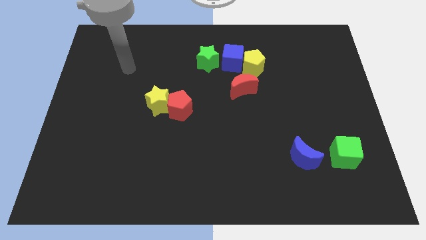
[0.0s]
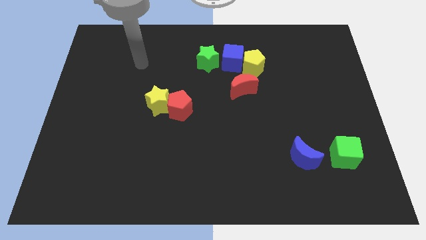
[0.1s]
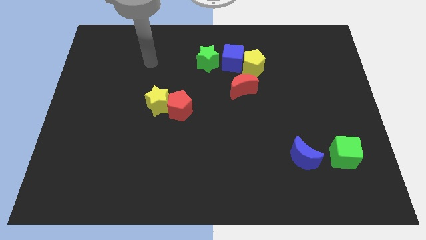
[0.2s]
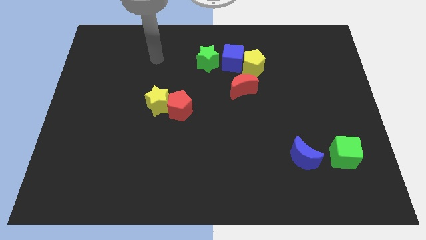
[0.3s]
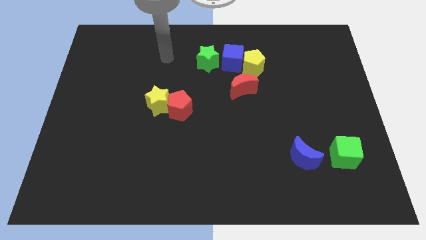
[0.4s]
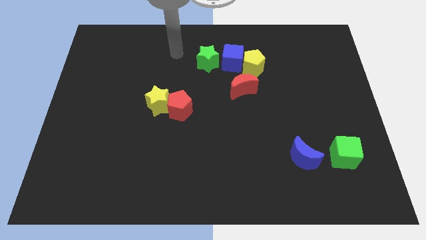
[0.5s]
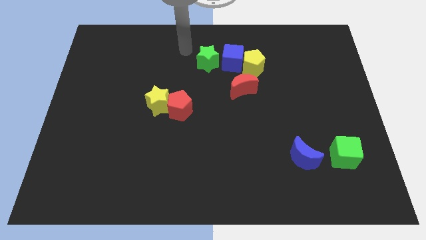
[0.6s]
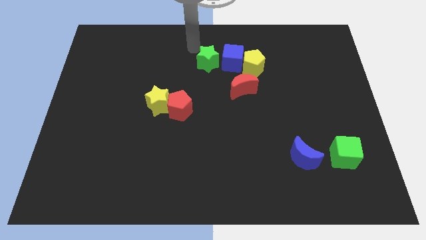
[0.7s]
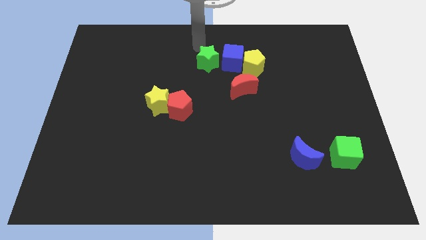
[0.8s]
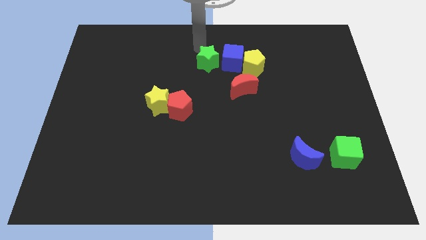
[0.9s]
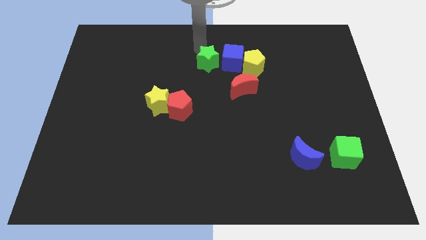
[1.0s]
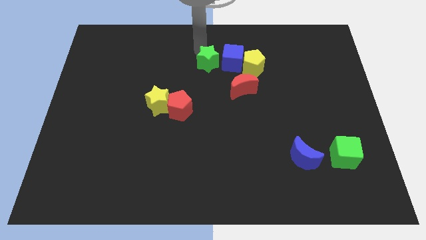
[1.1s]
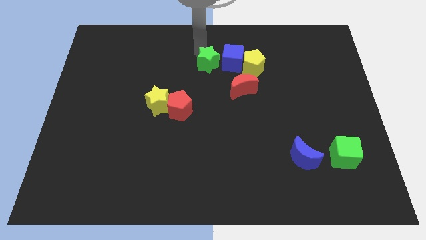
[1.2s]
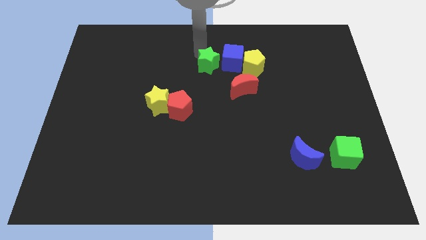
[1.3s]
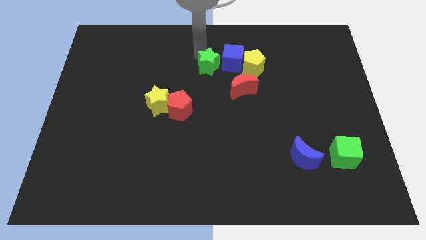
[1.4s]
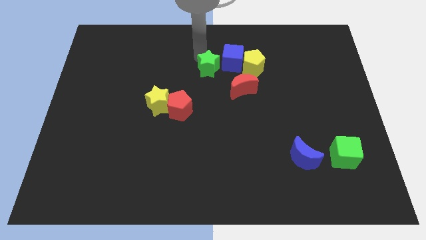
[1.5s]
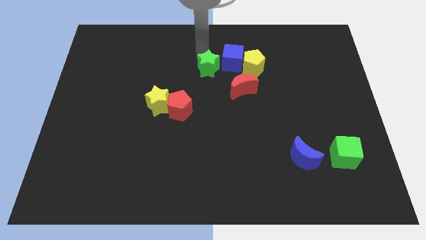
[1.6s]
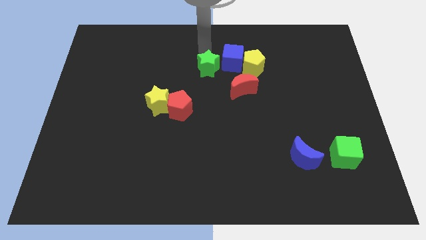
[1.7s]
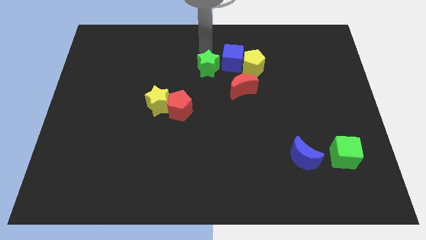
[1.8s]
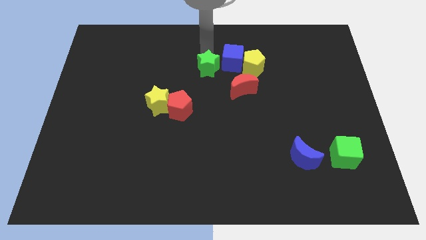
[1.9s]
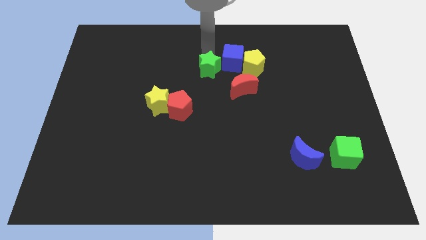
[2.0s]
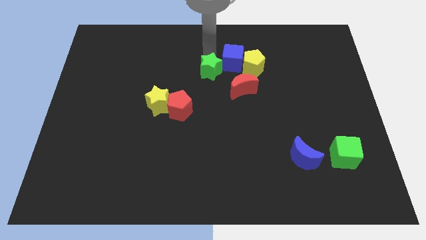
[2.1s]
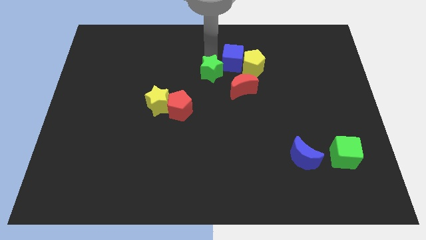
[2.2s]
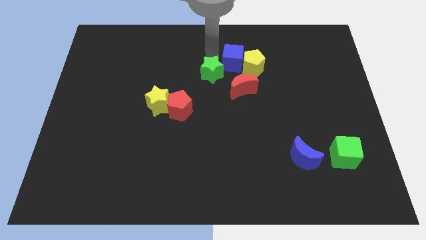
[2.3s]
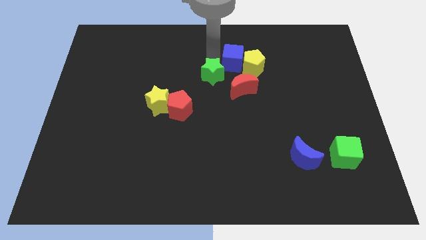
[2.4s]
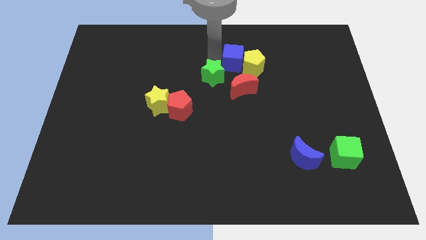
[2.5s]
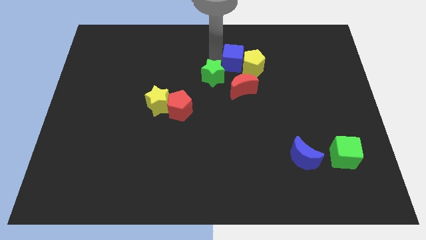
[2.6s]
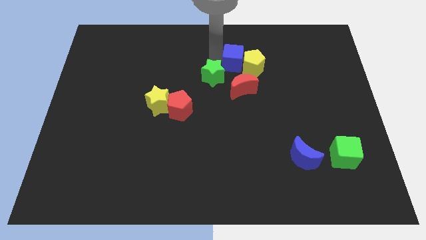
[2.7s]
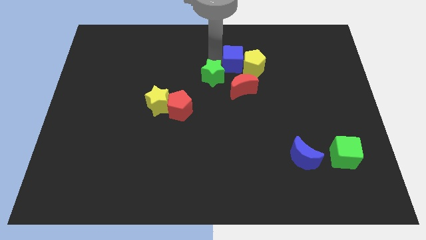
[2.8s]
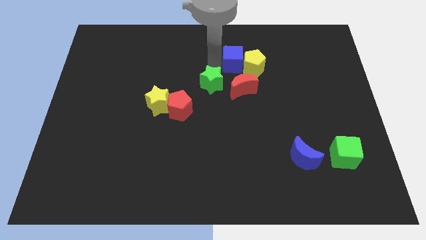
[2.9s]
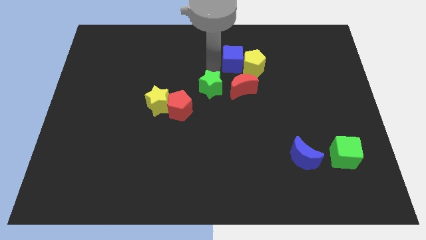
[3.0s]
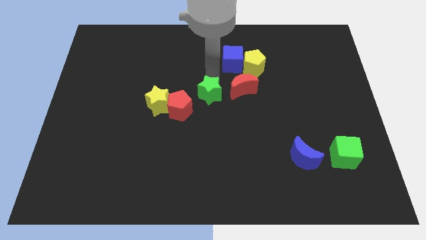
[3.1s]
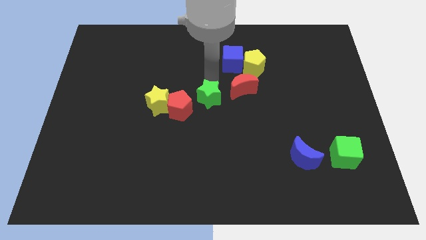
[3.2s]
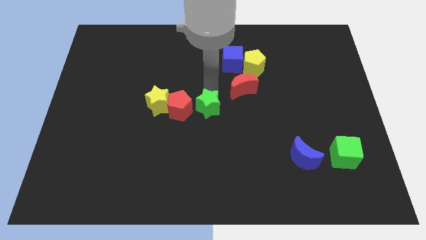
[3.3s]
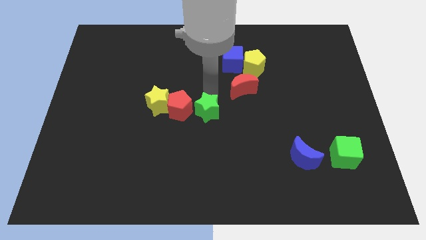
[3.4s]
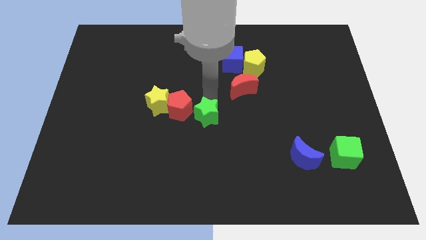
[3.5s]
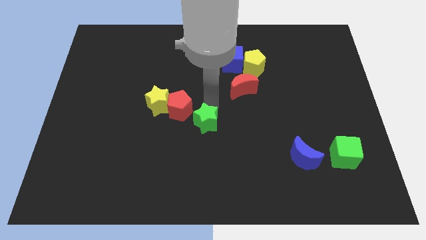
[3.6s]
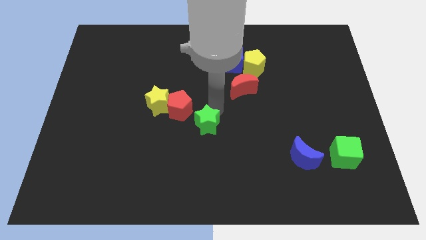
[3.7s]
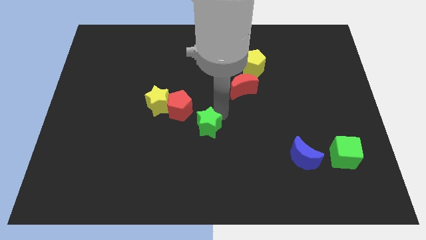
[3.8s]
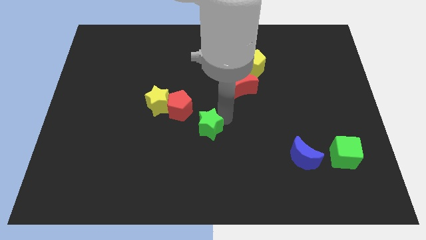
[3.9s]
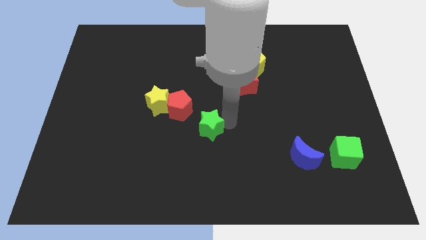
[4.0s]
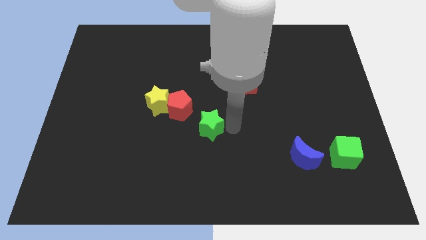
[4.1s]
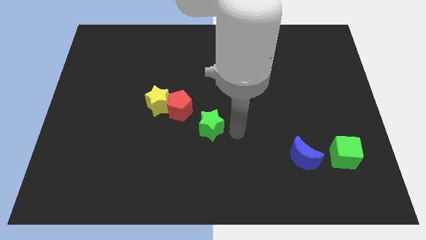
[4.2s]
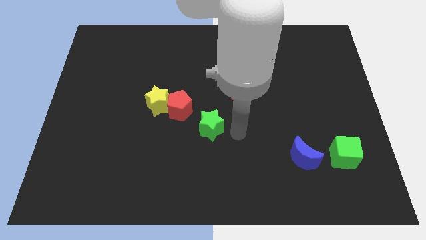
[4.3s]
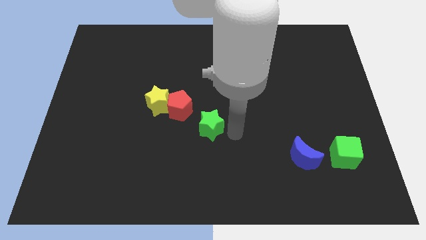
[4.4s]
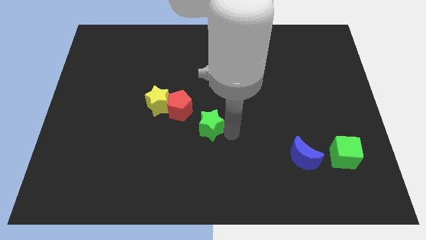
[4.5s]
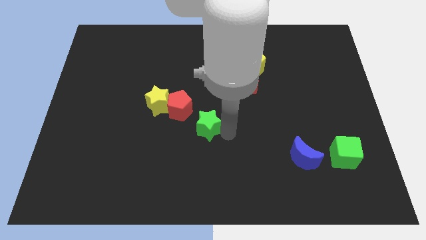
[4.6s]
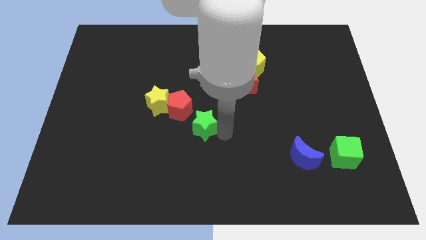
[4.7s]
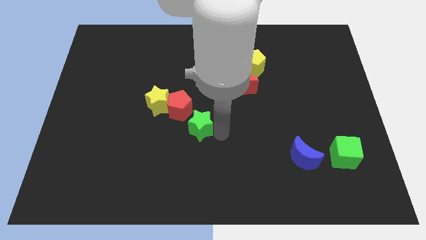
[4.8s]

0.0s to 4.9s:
move the green star to the bottom right of the yellow star

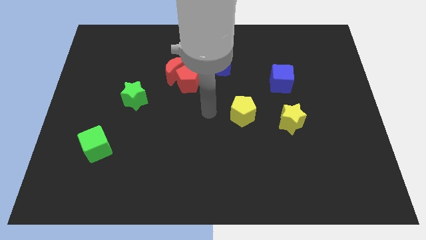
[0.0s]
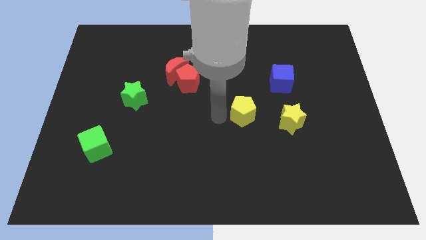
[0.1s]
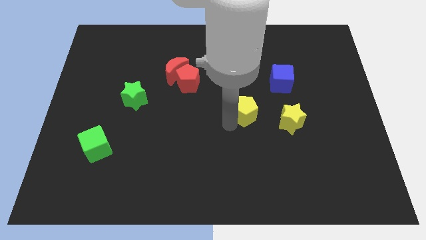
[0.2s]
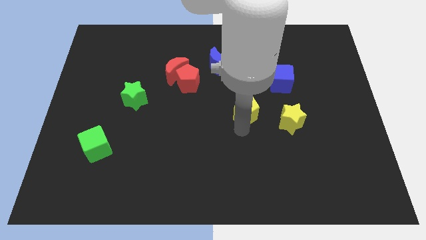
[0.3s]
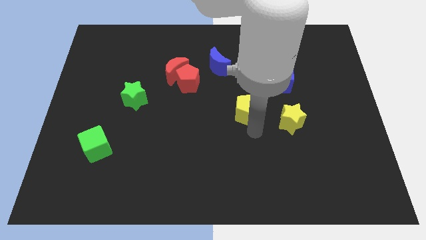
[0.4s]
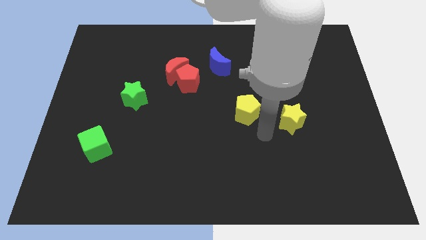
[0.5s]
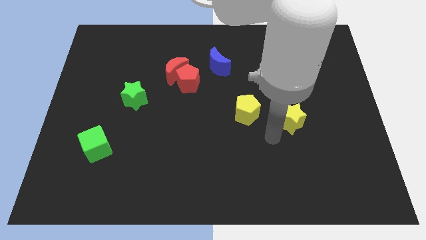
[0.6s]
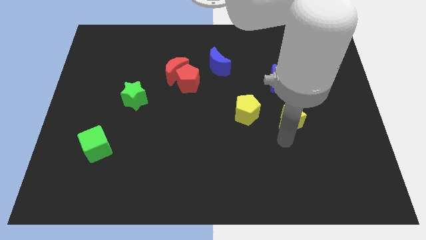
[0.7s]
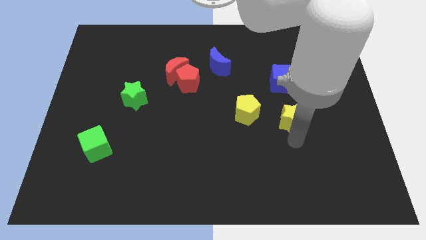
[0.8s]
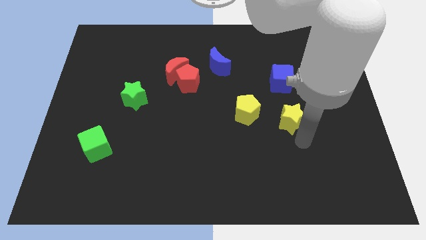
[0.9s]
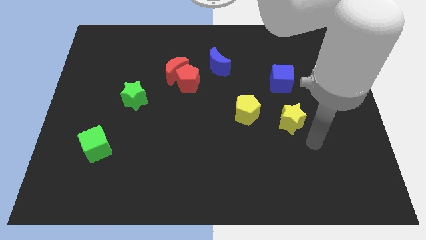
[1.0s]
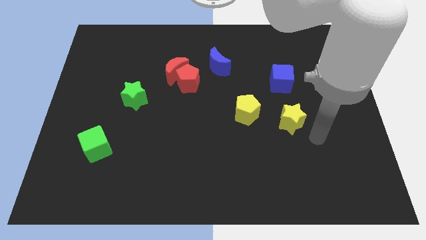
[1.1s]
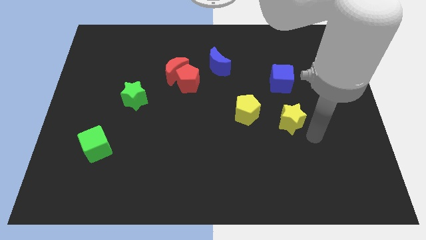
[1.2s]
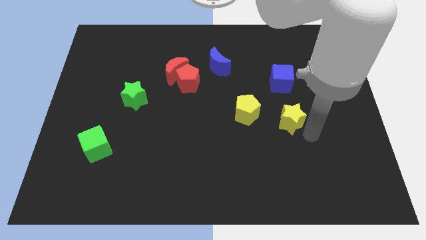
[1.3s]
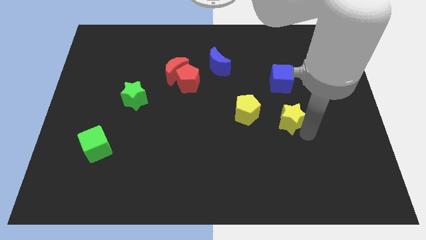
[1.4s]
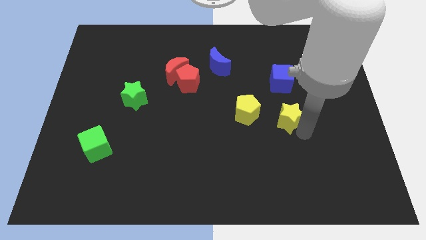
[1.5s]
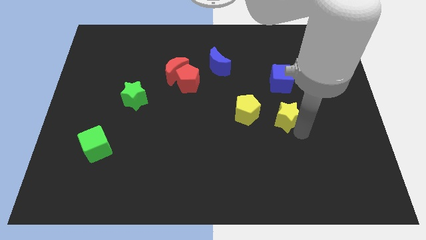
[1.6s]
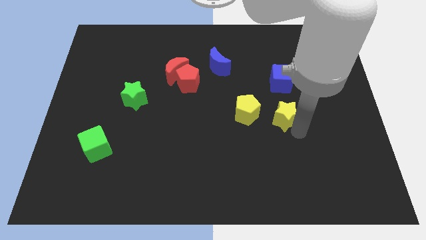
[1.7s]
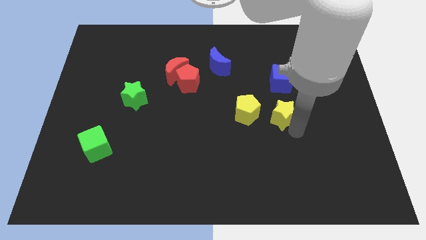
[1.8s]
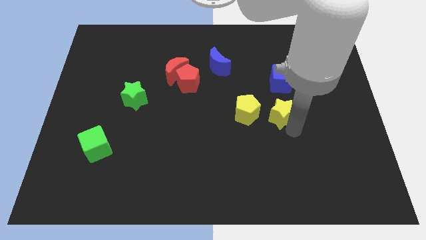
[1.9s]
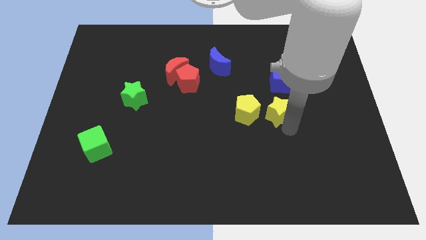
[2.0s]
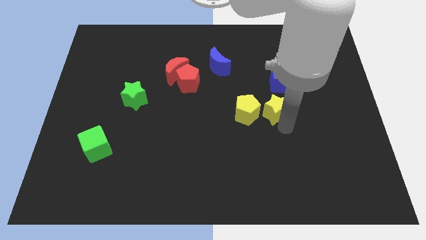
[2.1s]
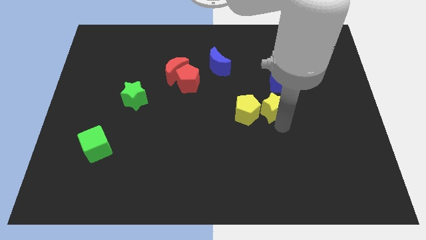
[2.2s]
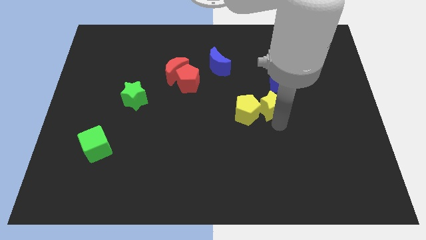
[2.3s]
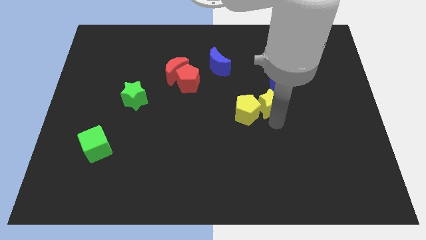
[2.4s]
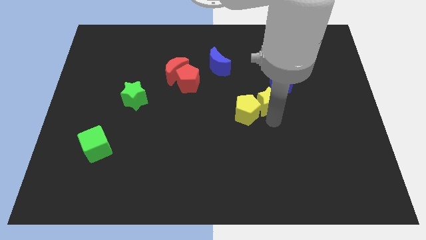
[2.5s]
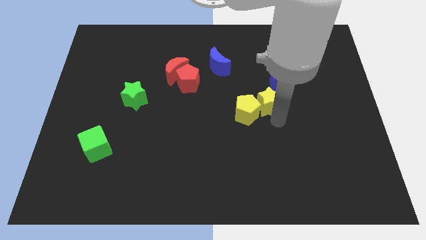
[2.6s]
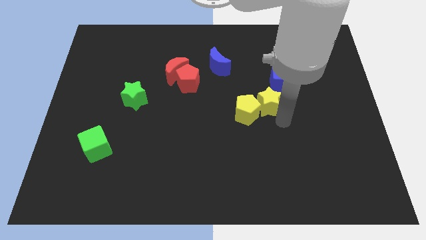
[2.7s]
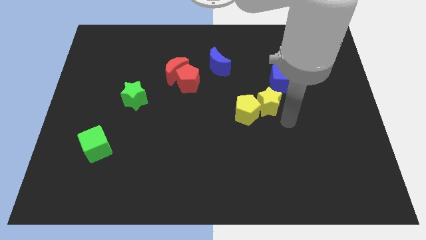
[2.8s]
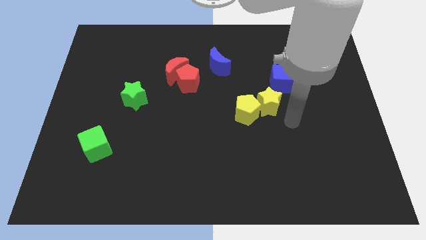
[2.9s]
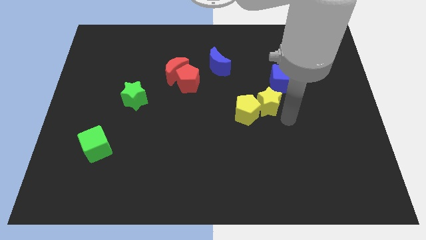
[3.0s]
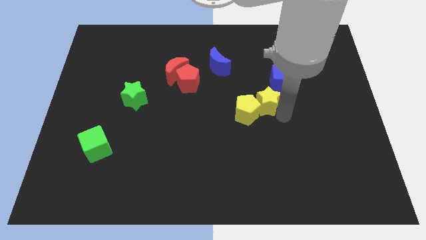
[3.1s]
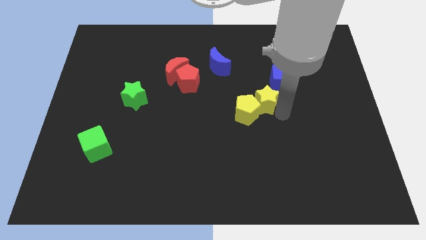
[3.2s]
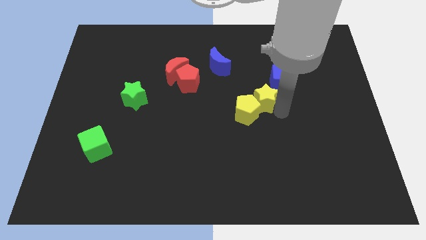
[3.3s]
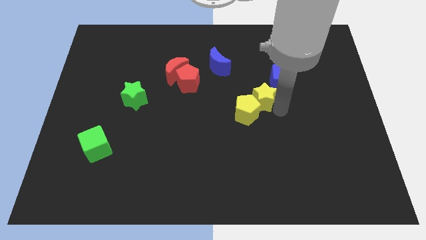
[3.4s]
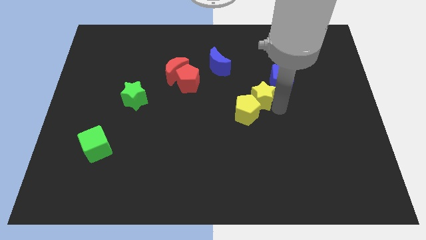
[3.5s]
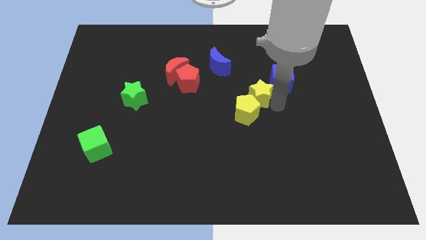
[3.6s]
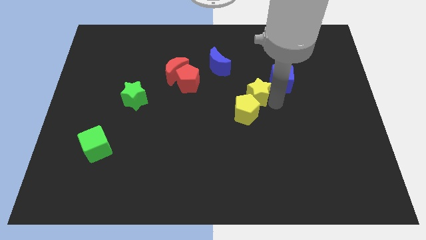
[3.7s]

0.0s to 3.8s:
put the yellow star to the left side of the blue cube

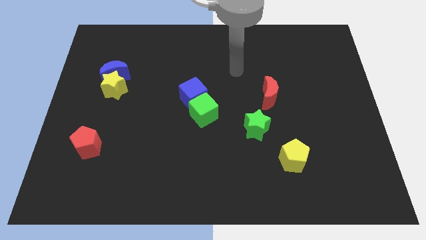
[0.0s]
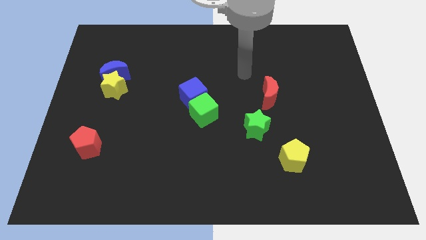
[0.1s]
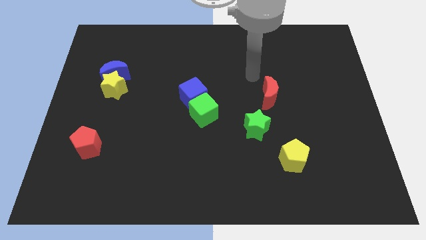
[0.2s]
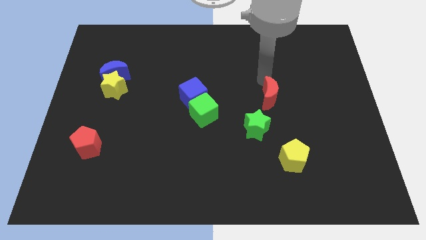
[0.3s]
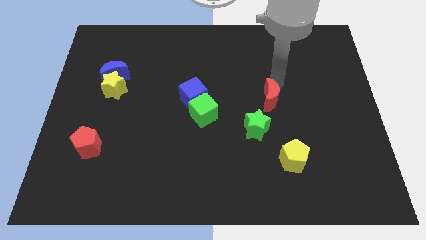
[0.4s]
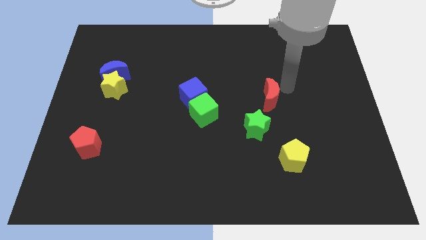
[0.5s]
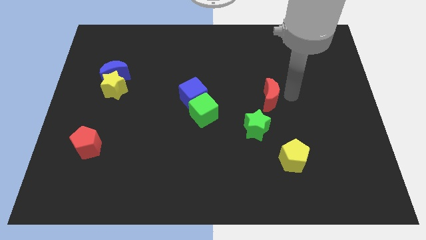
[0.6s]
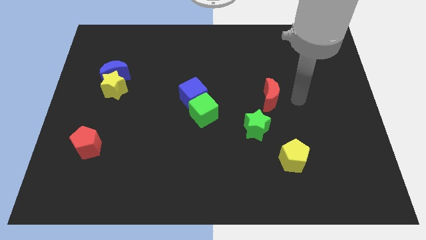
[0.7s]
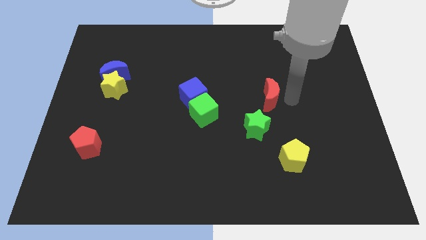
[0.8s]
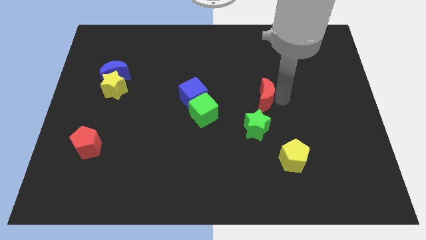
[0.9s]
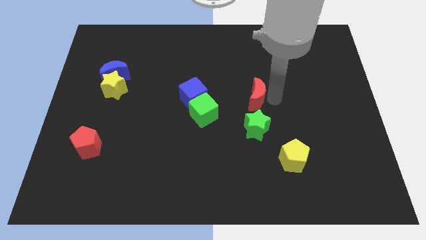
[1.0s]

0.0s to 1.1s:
slide the red moon to the right side of the blue cube
